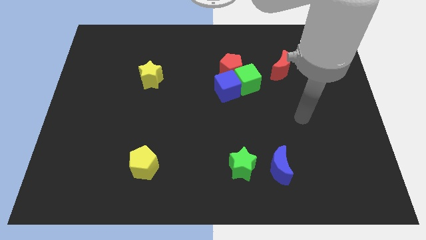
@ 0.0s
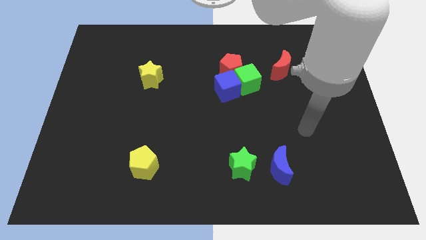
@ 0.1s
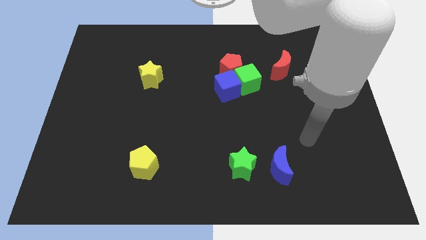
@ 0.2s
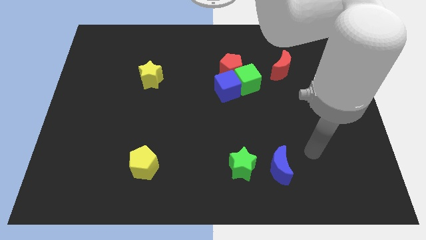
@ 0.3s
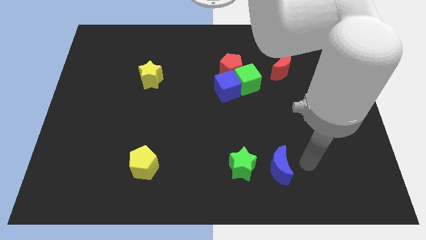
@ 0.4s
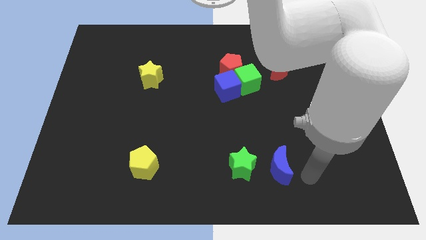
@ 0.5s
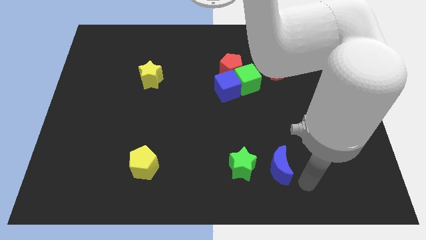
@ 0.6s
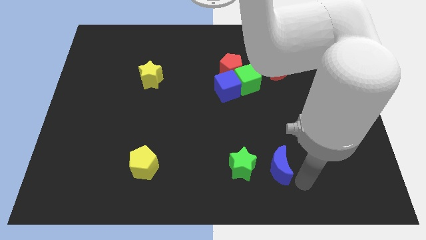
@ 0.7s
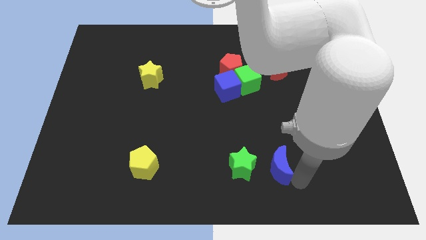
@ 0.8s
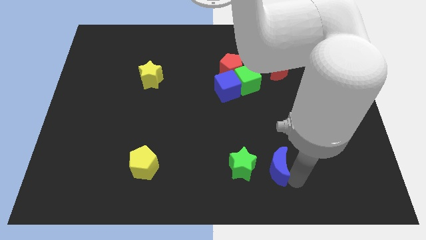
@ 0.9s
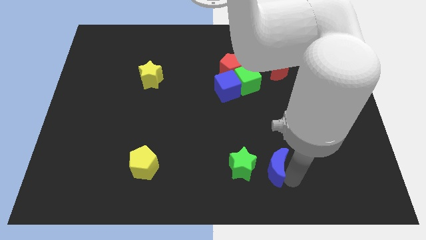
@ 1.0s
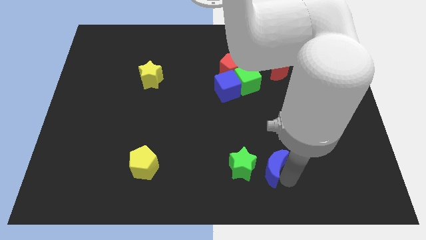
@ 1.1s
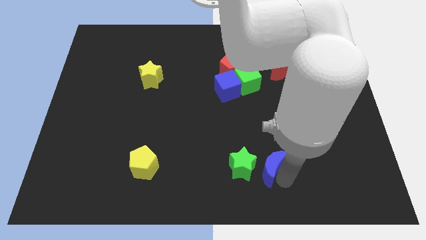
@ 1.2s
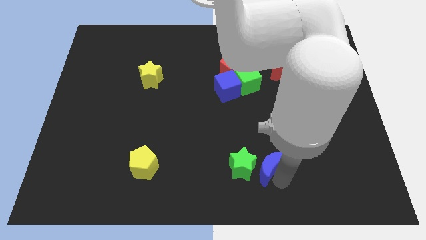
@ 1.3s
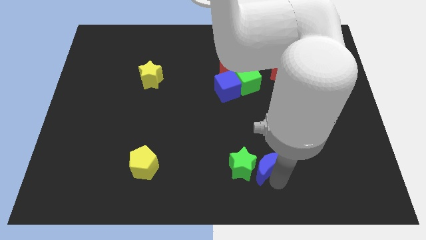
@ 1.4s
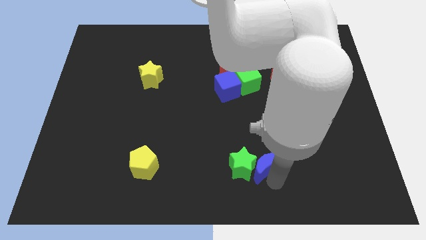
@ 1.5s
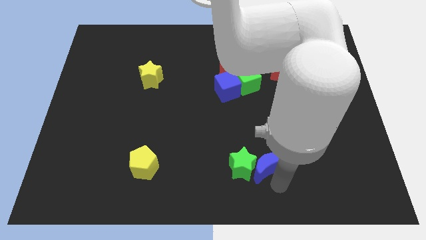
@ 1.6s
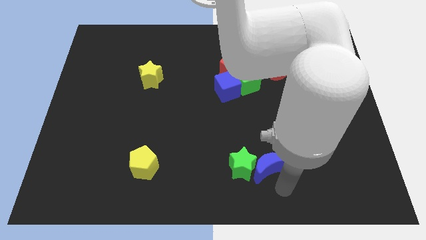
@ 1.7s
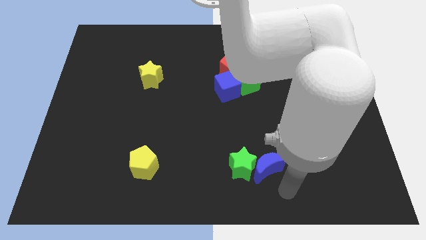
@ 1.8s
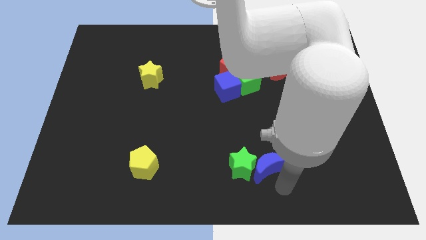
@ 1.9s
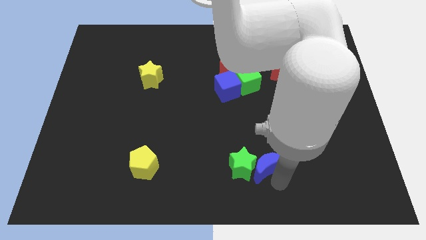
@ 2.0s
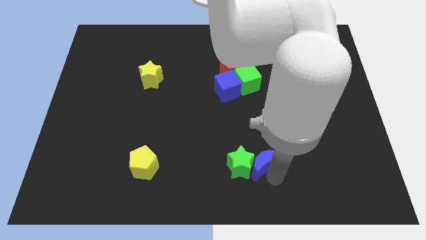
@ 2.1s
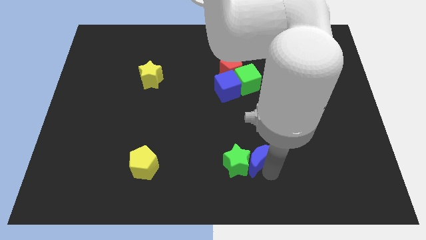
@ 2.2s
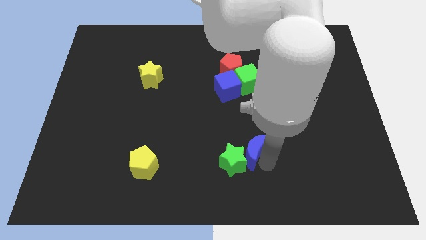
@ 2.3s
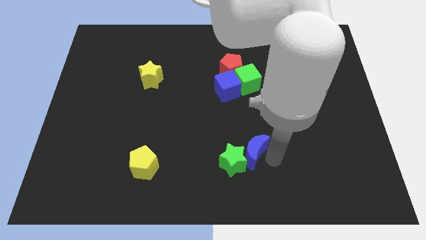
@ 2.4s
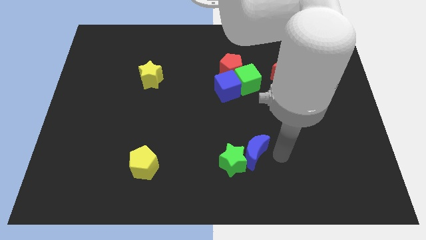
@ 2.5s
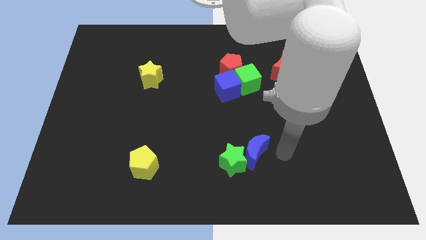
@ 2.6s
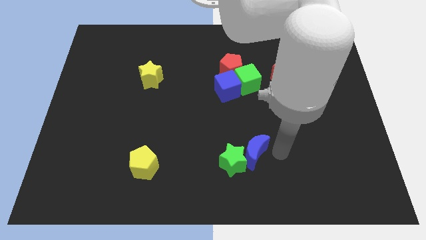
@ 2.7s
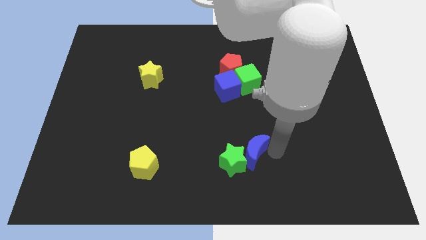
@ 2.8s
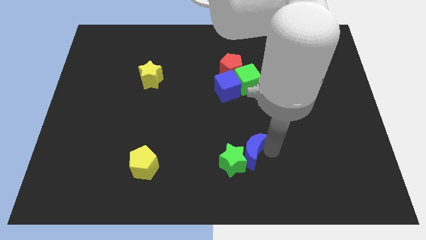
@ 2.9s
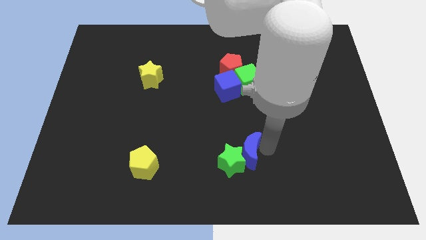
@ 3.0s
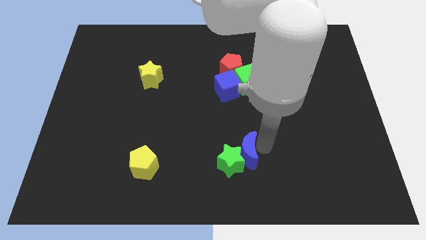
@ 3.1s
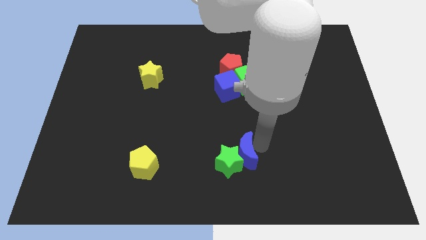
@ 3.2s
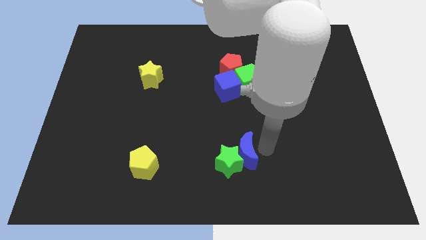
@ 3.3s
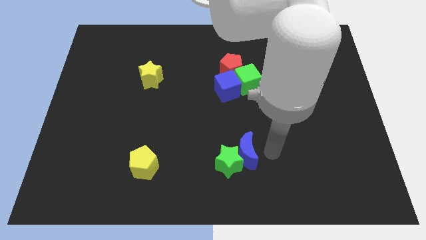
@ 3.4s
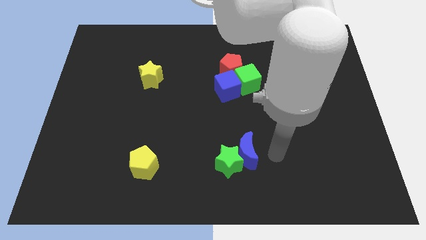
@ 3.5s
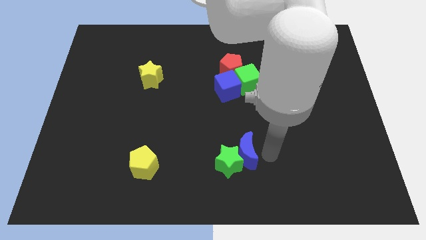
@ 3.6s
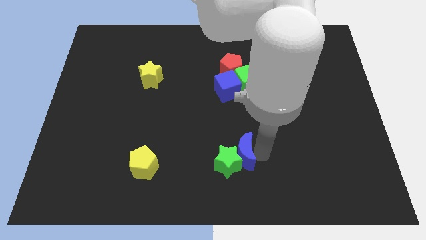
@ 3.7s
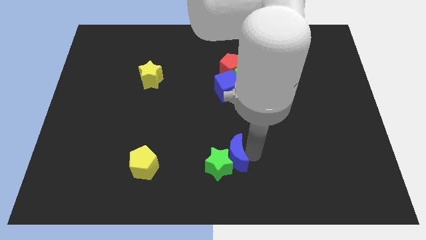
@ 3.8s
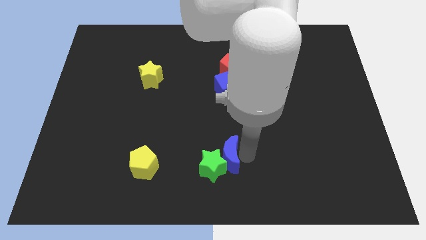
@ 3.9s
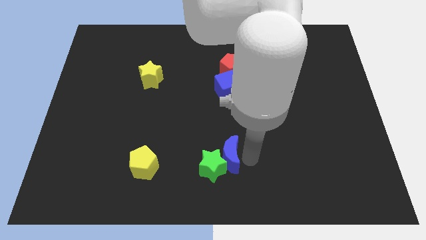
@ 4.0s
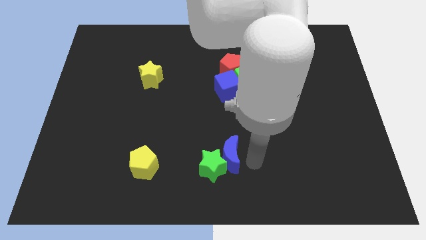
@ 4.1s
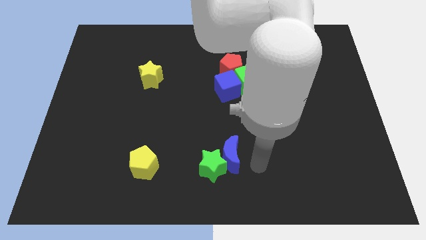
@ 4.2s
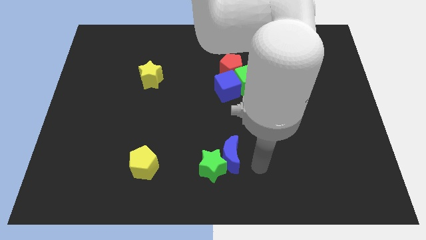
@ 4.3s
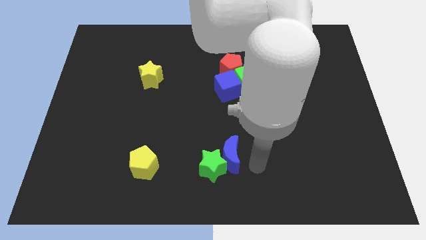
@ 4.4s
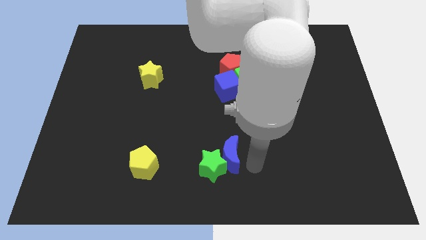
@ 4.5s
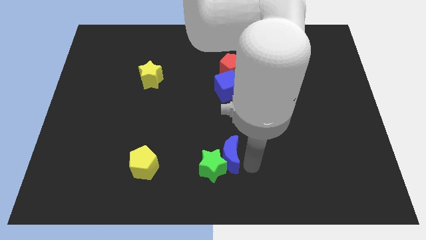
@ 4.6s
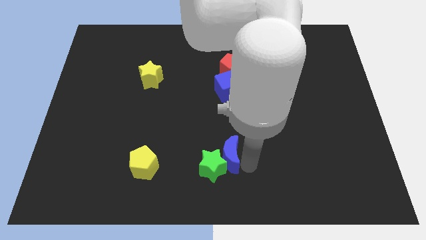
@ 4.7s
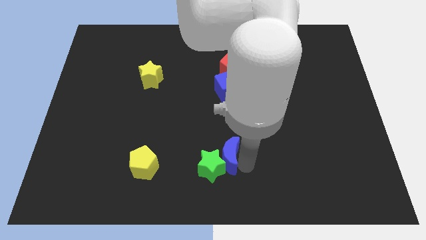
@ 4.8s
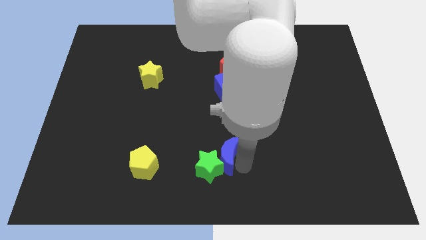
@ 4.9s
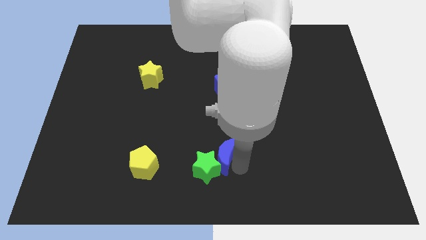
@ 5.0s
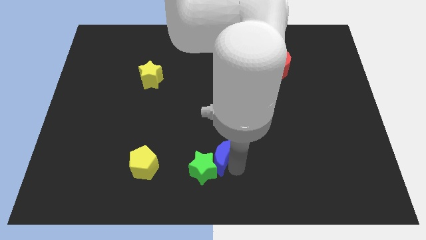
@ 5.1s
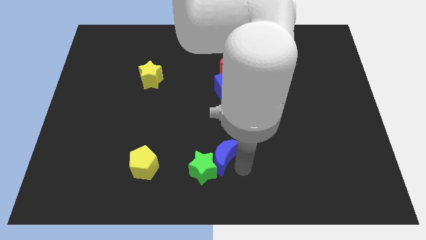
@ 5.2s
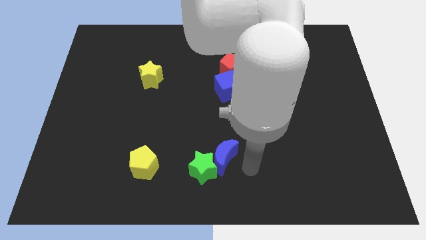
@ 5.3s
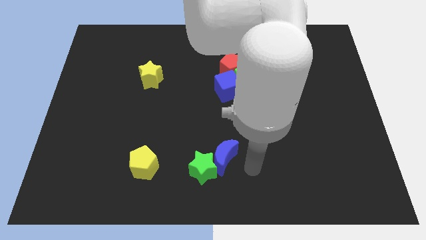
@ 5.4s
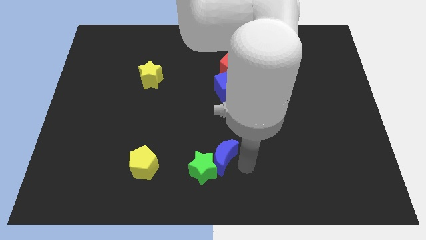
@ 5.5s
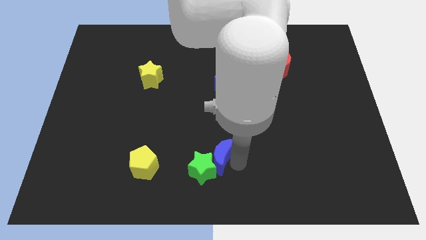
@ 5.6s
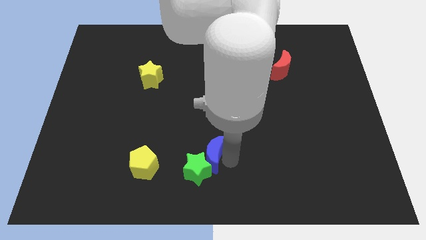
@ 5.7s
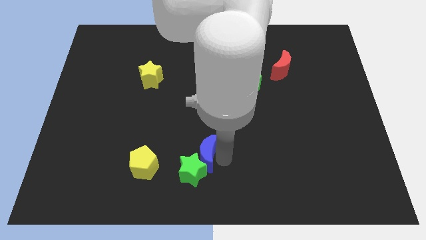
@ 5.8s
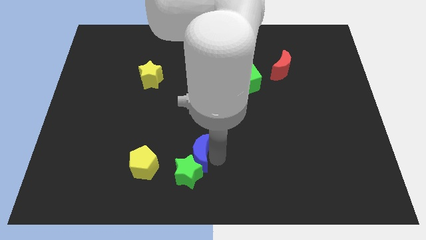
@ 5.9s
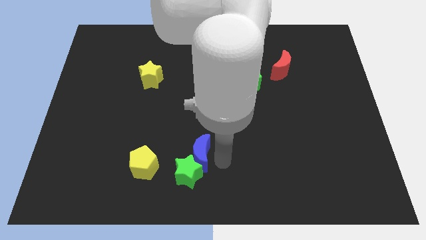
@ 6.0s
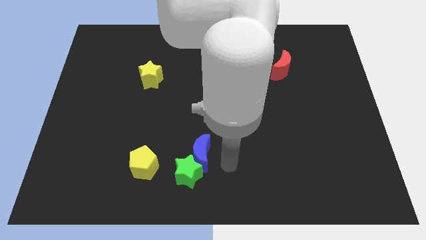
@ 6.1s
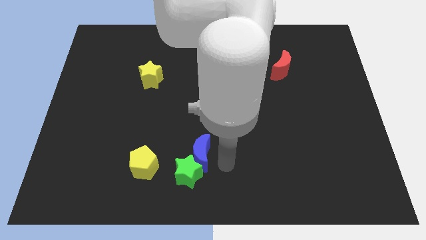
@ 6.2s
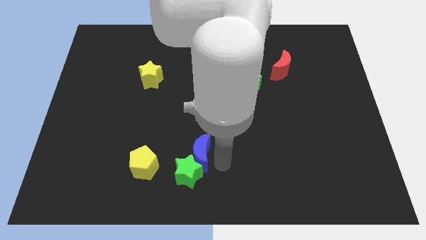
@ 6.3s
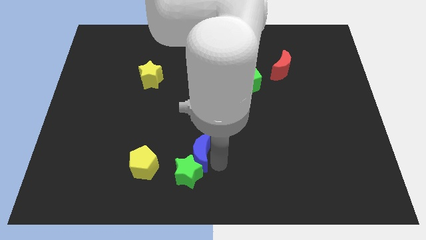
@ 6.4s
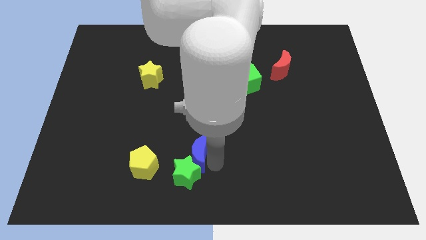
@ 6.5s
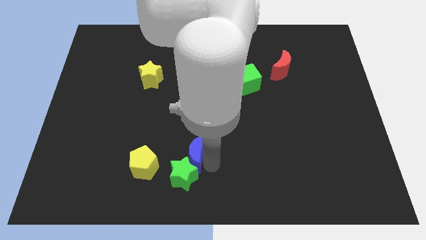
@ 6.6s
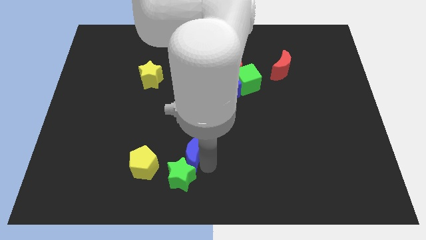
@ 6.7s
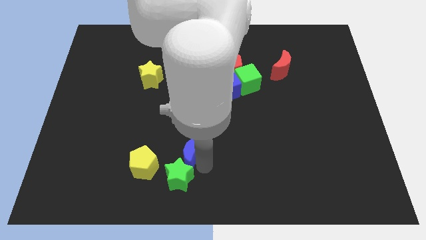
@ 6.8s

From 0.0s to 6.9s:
move the blue moon diagonally up and to the right of the yellow pentagon

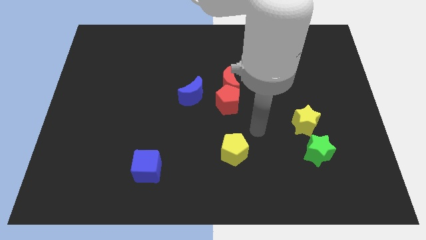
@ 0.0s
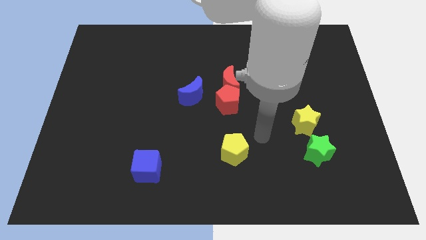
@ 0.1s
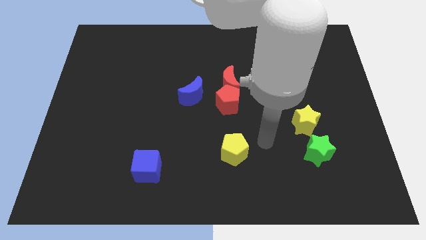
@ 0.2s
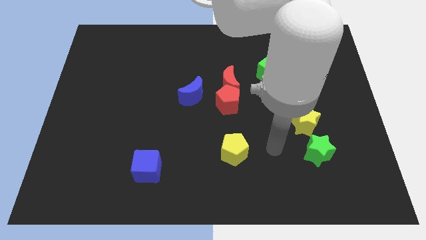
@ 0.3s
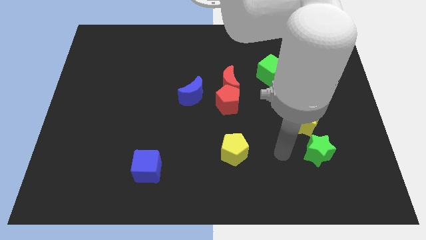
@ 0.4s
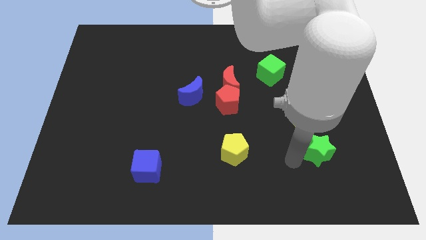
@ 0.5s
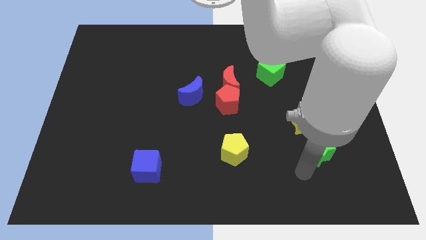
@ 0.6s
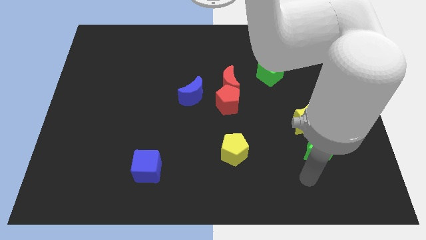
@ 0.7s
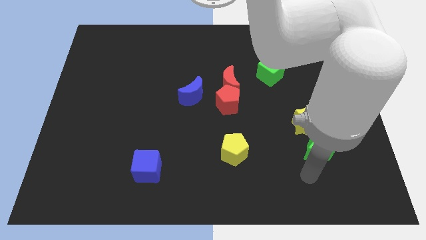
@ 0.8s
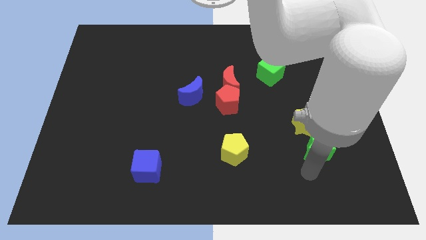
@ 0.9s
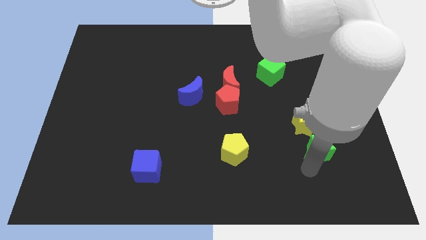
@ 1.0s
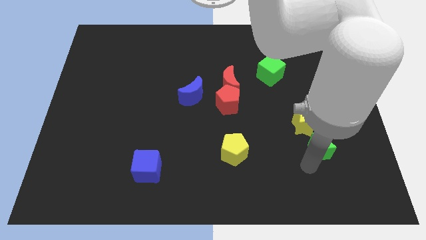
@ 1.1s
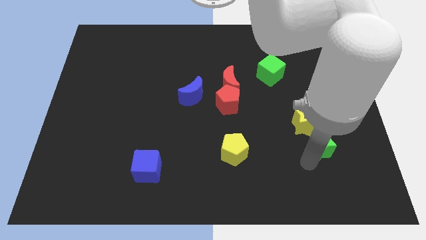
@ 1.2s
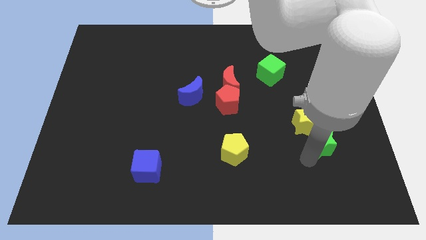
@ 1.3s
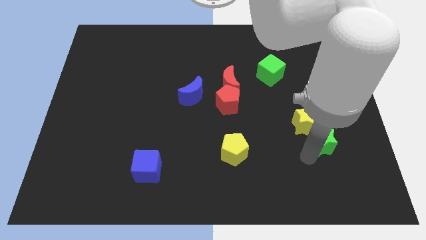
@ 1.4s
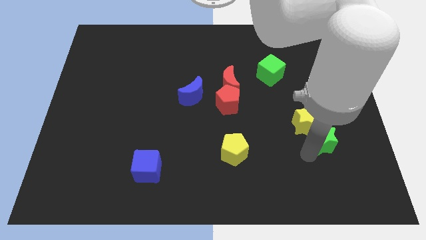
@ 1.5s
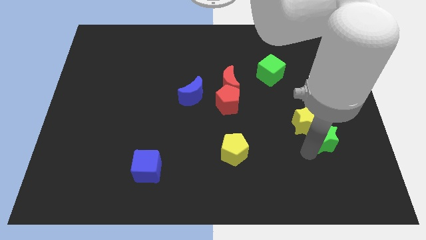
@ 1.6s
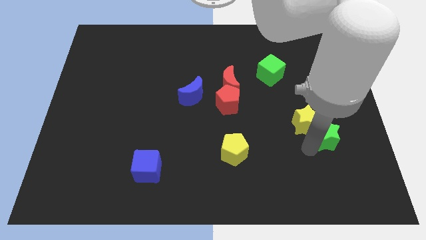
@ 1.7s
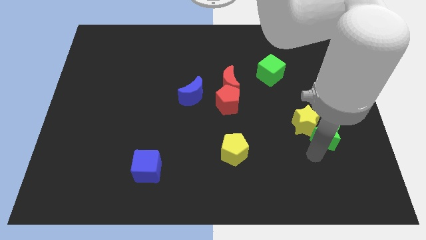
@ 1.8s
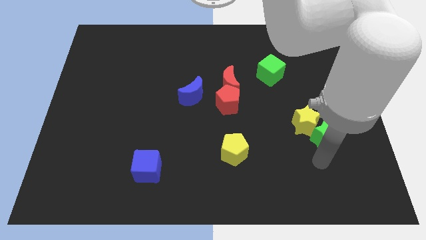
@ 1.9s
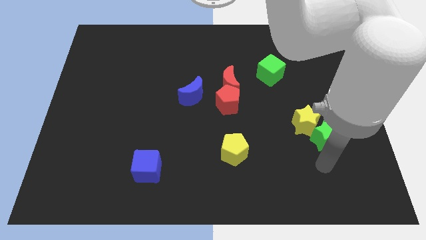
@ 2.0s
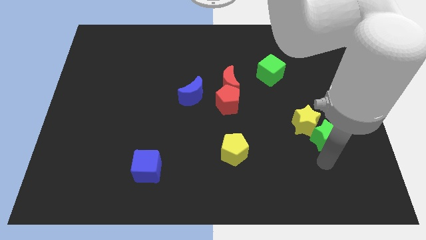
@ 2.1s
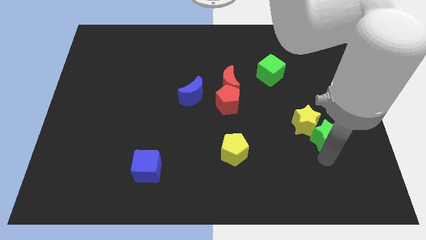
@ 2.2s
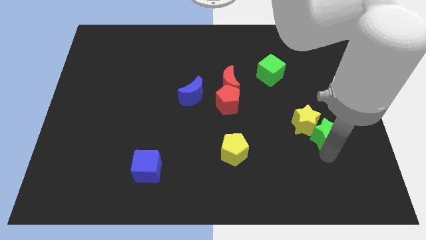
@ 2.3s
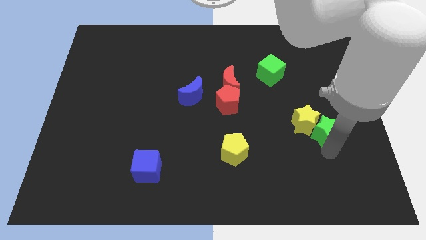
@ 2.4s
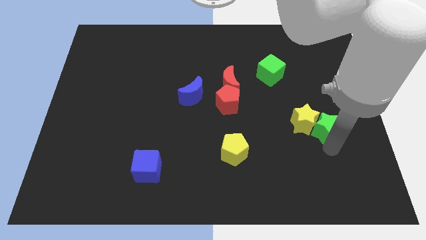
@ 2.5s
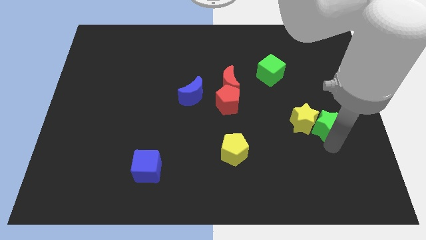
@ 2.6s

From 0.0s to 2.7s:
push the green star to the top right side of the yellow star
